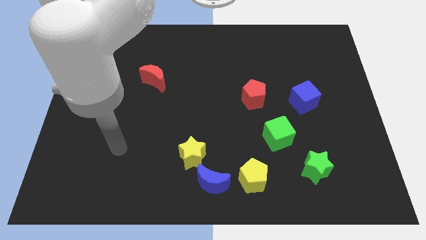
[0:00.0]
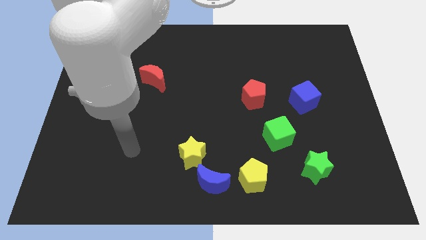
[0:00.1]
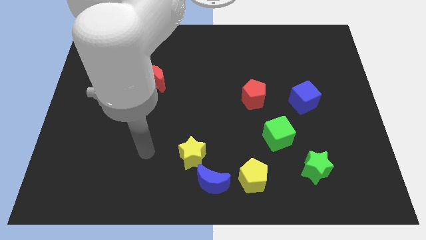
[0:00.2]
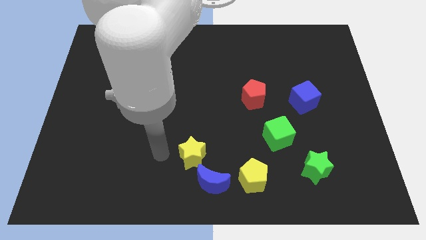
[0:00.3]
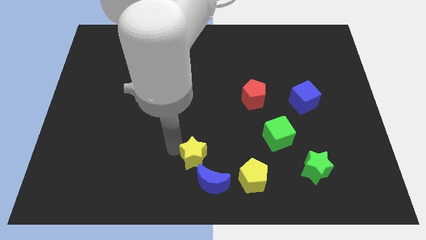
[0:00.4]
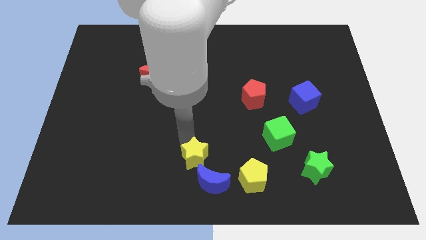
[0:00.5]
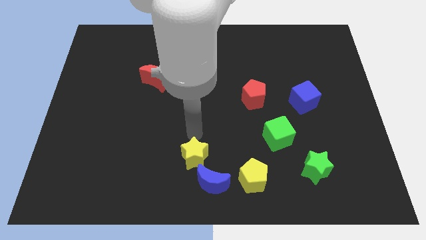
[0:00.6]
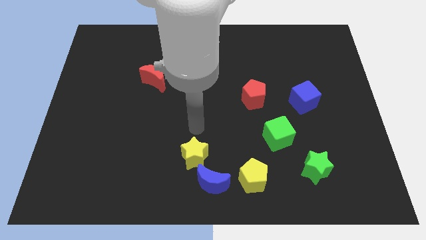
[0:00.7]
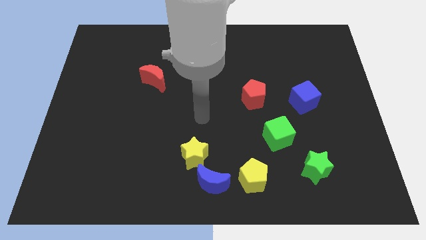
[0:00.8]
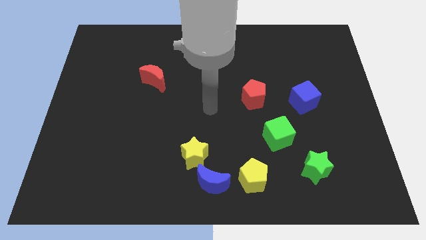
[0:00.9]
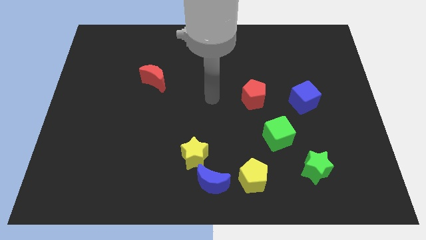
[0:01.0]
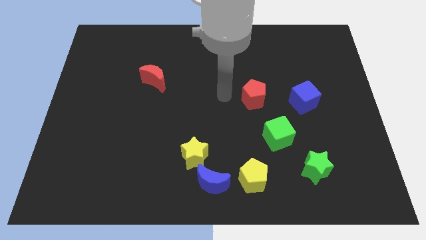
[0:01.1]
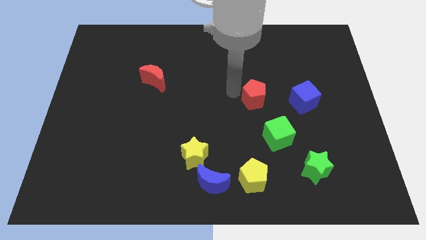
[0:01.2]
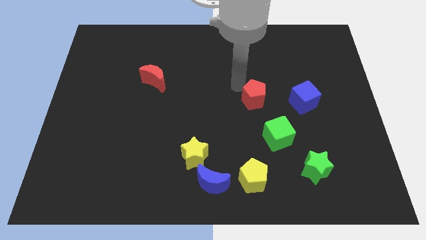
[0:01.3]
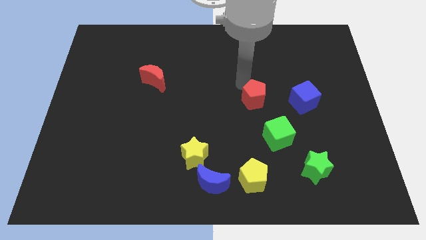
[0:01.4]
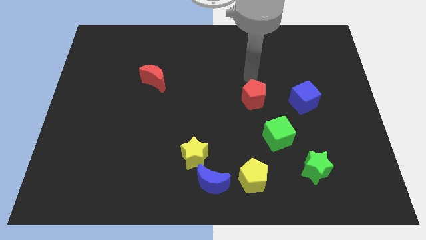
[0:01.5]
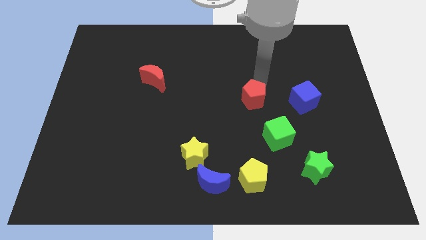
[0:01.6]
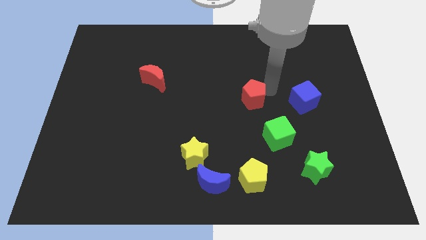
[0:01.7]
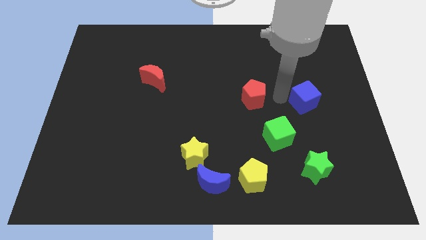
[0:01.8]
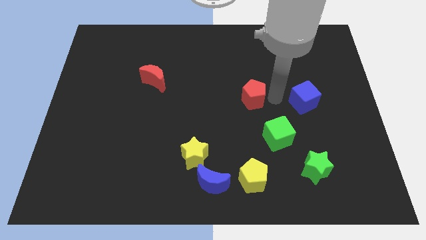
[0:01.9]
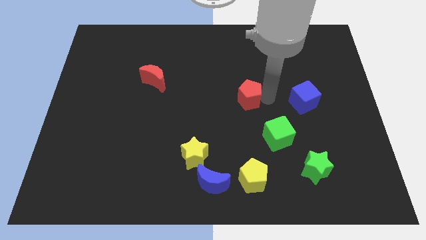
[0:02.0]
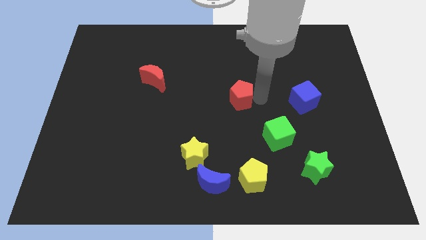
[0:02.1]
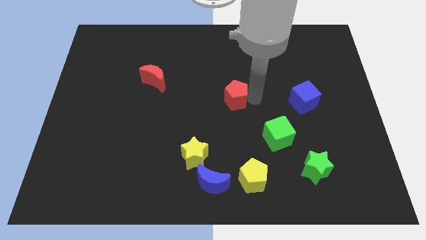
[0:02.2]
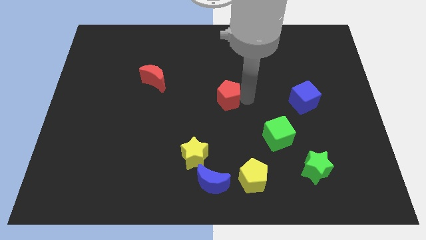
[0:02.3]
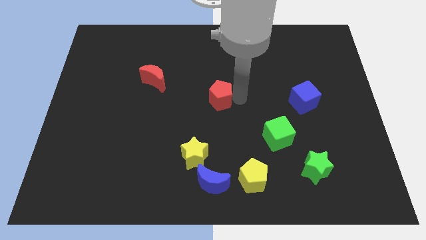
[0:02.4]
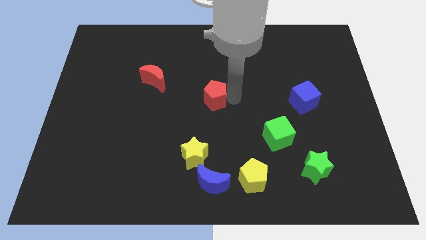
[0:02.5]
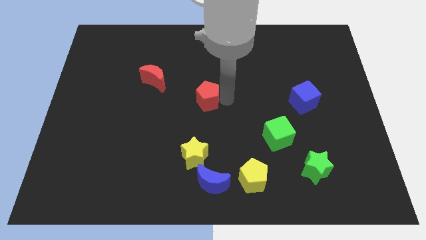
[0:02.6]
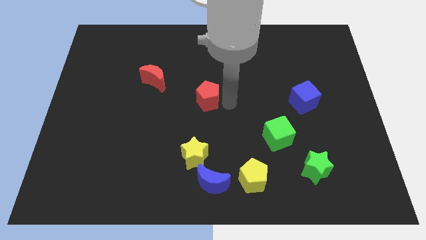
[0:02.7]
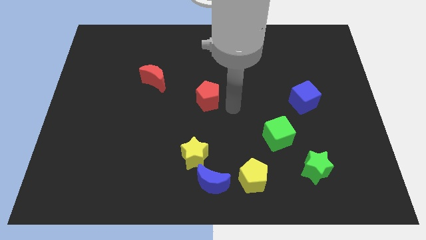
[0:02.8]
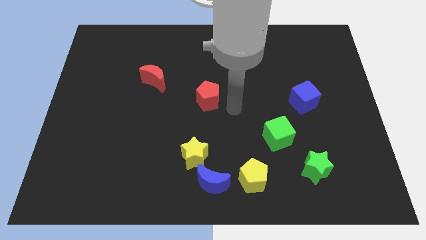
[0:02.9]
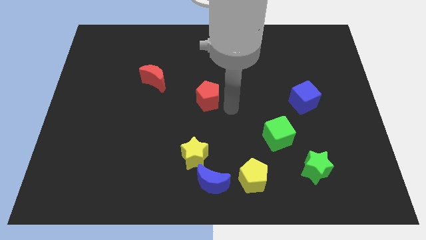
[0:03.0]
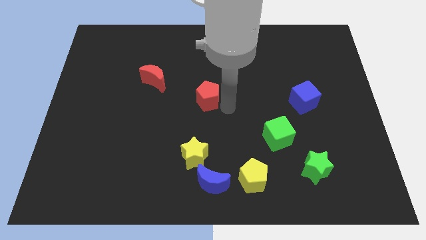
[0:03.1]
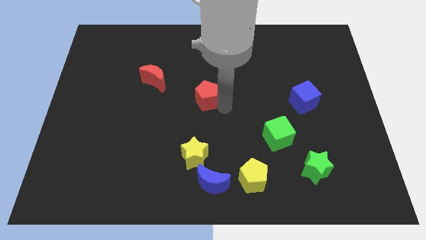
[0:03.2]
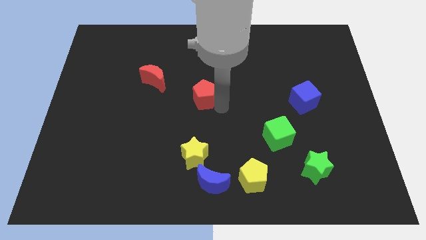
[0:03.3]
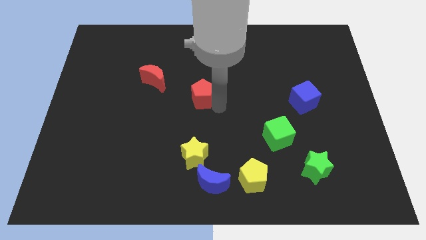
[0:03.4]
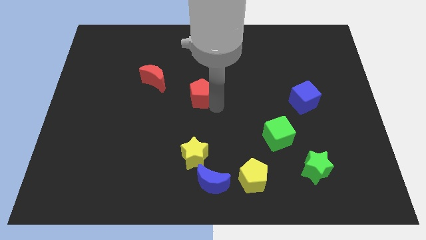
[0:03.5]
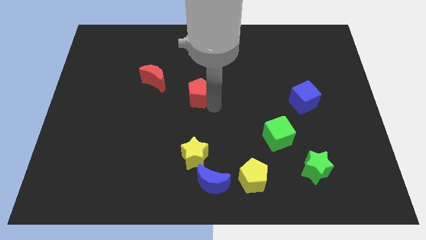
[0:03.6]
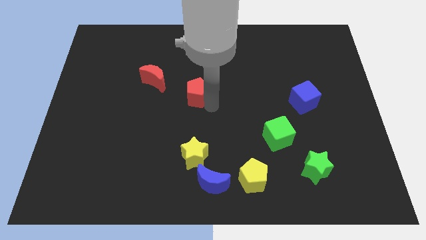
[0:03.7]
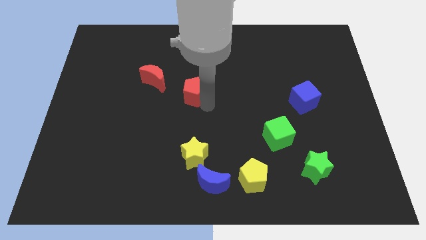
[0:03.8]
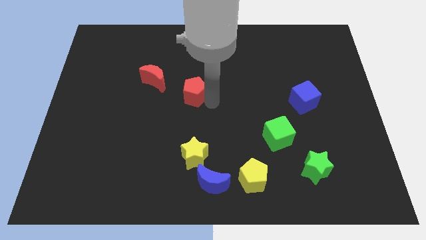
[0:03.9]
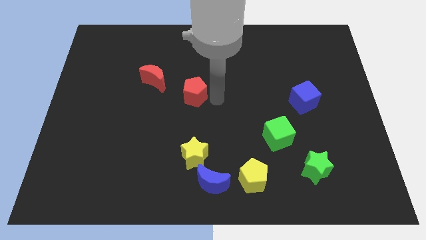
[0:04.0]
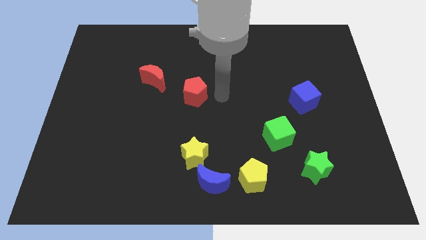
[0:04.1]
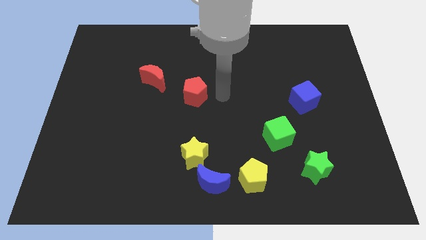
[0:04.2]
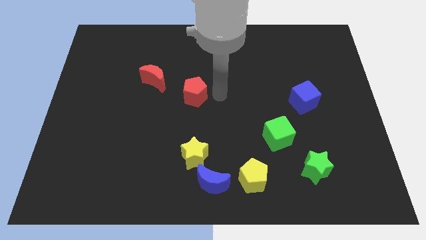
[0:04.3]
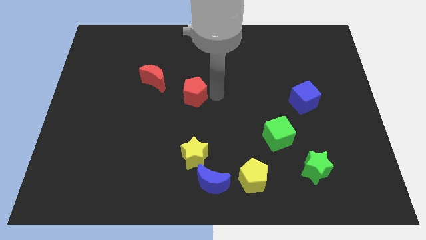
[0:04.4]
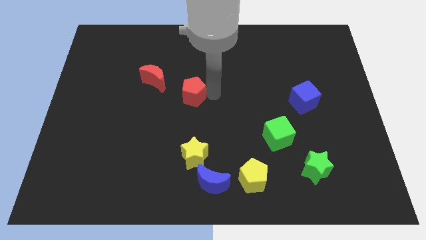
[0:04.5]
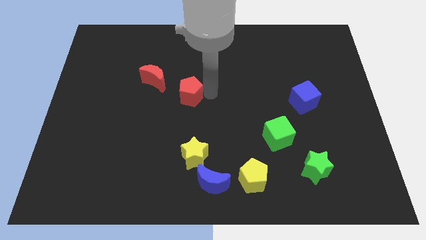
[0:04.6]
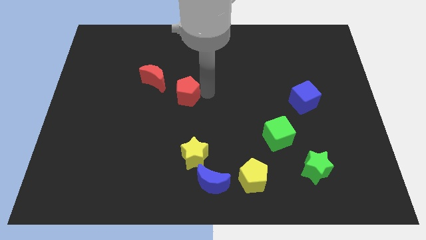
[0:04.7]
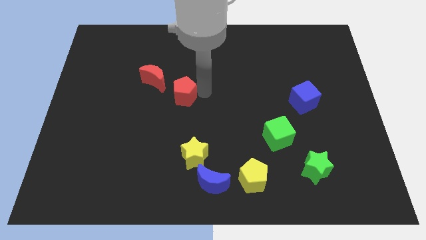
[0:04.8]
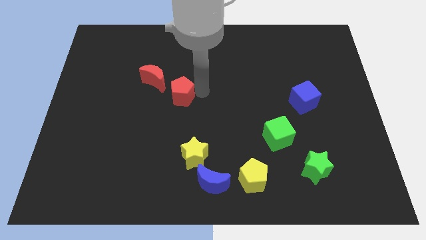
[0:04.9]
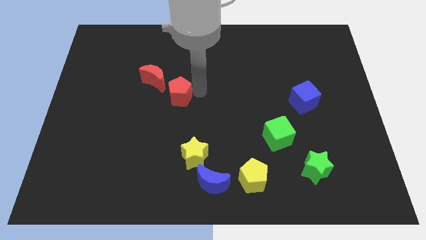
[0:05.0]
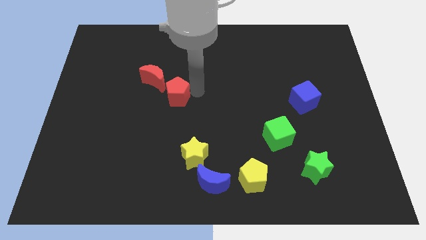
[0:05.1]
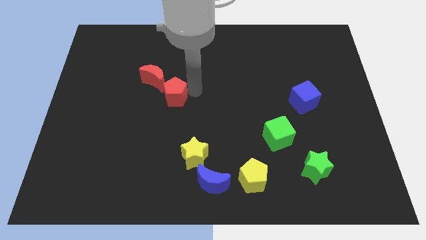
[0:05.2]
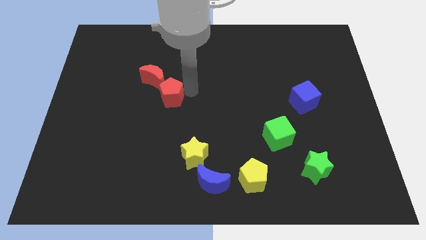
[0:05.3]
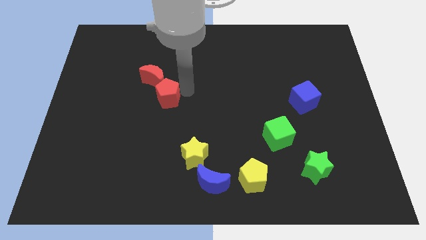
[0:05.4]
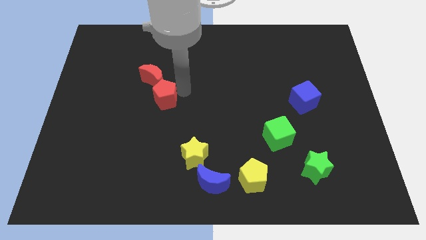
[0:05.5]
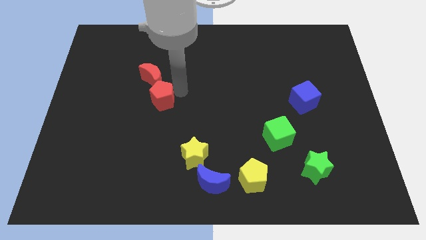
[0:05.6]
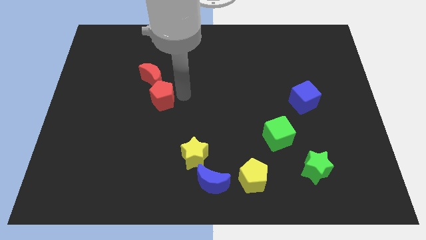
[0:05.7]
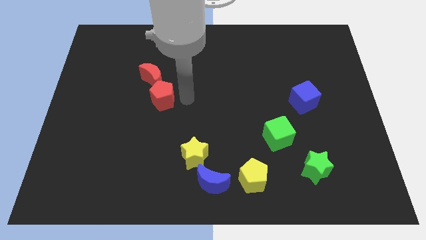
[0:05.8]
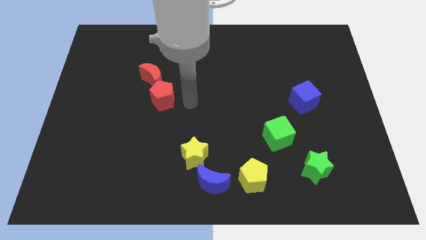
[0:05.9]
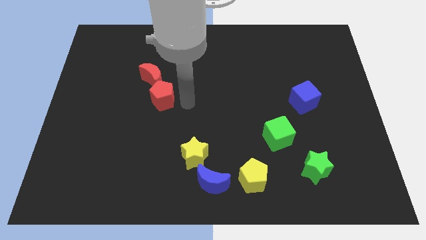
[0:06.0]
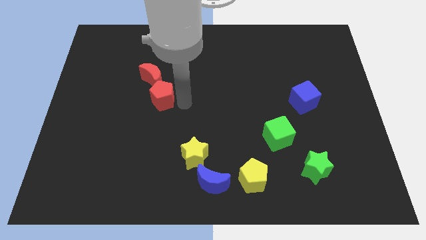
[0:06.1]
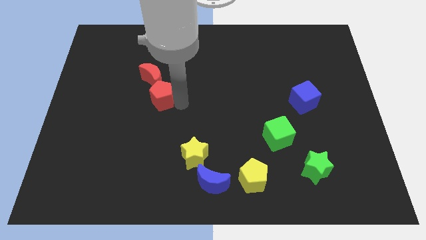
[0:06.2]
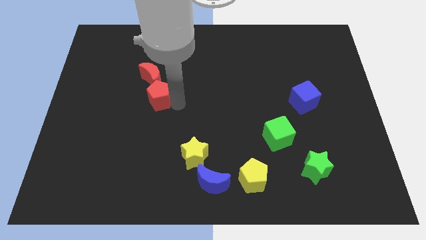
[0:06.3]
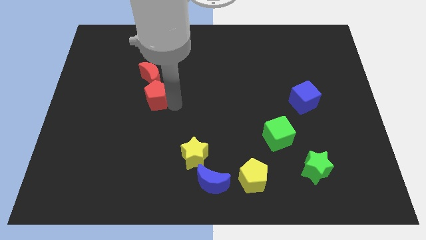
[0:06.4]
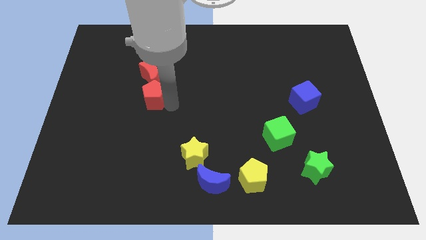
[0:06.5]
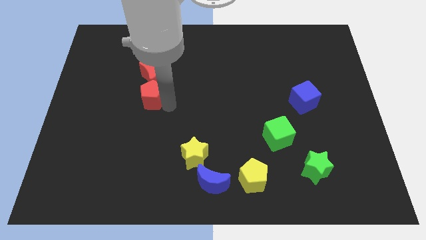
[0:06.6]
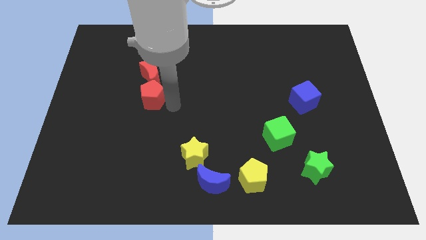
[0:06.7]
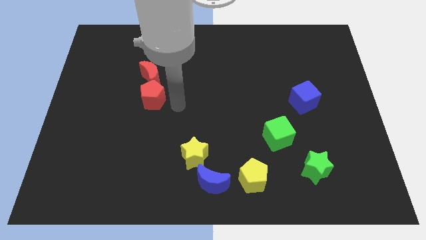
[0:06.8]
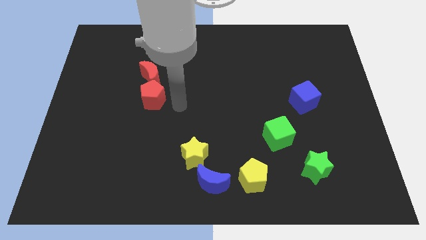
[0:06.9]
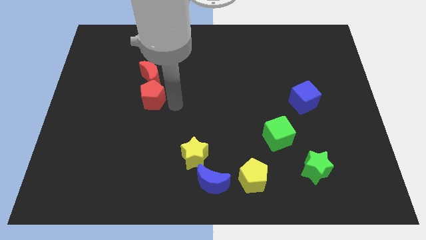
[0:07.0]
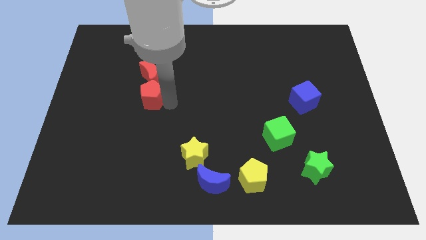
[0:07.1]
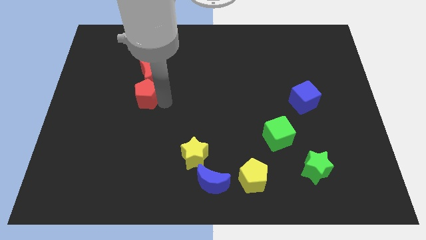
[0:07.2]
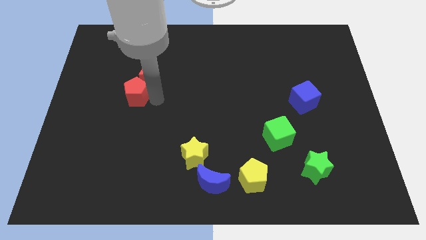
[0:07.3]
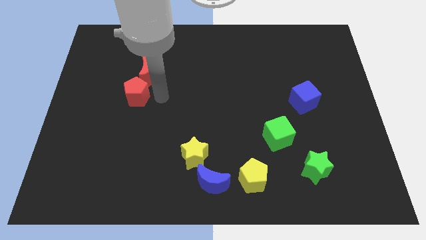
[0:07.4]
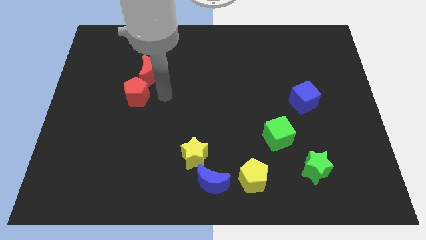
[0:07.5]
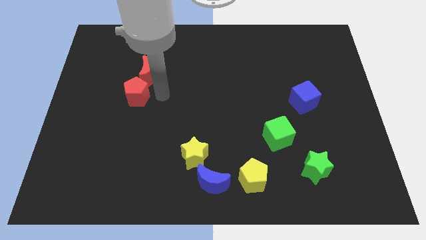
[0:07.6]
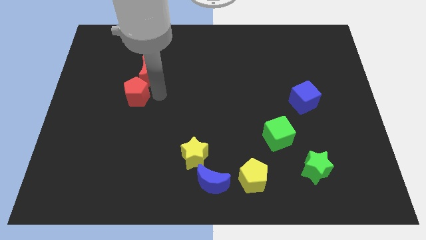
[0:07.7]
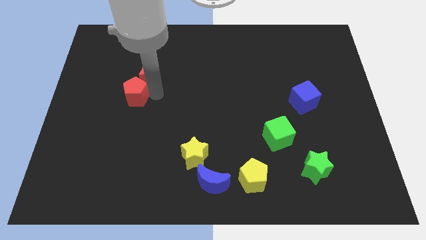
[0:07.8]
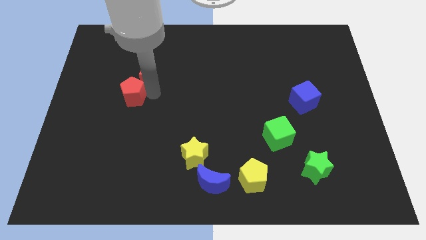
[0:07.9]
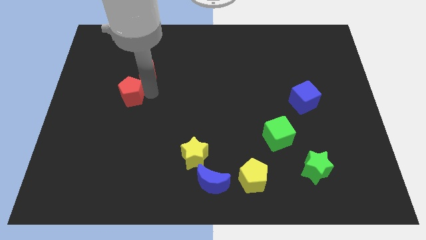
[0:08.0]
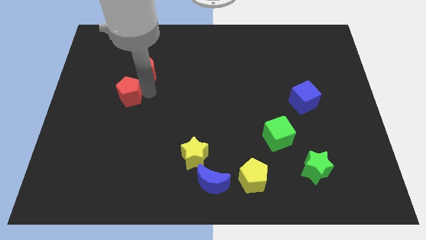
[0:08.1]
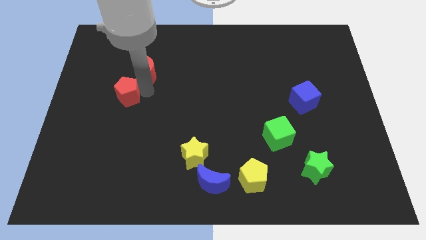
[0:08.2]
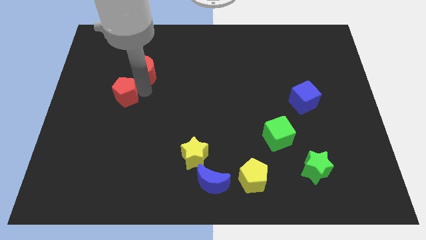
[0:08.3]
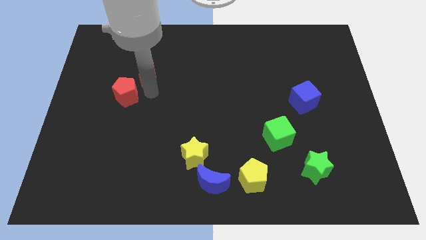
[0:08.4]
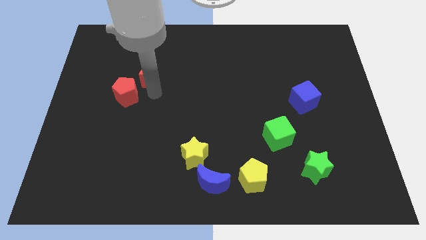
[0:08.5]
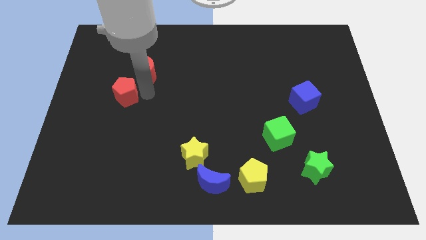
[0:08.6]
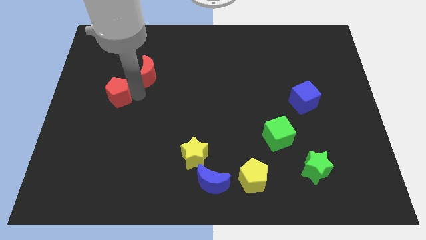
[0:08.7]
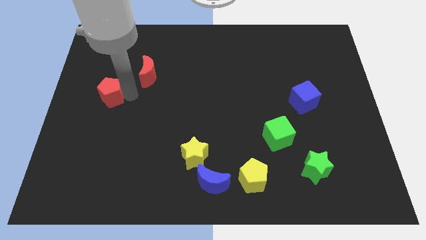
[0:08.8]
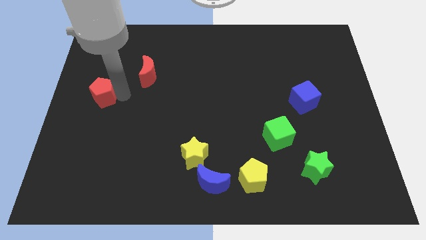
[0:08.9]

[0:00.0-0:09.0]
put the red pentagon to the center left
